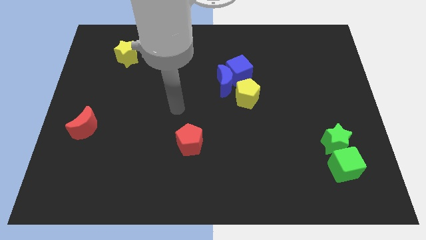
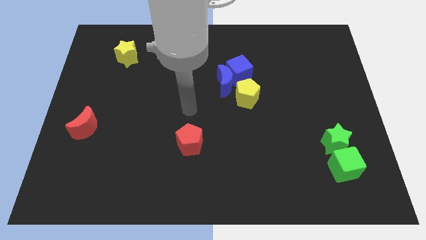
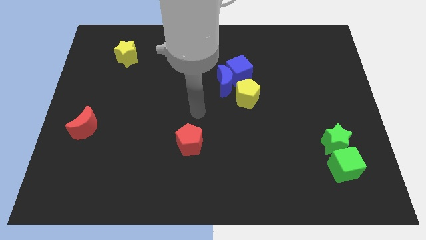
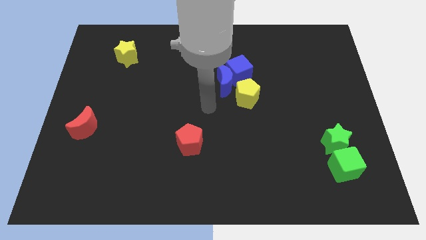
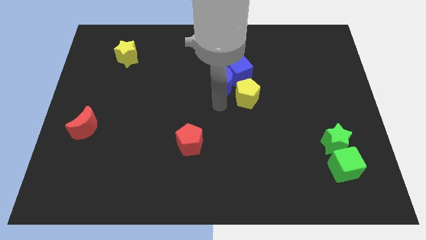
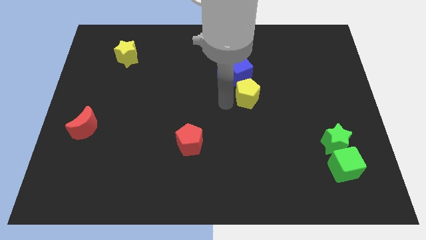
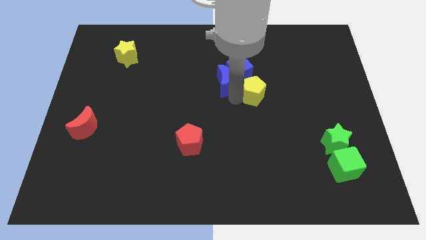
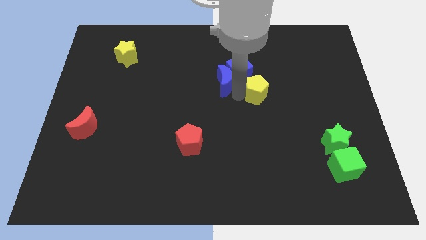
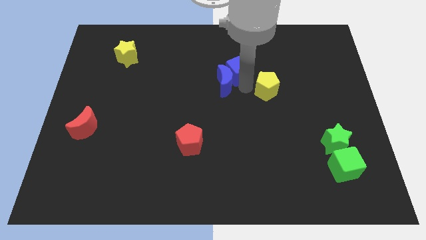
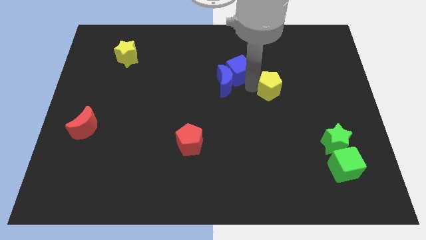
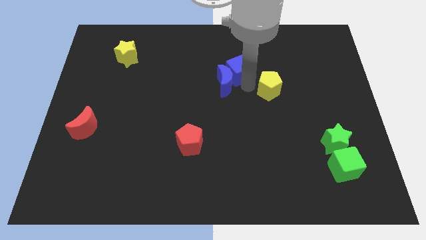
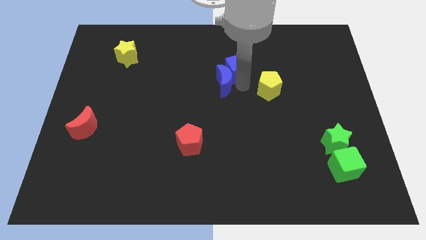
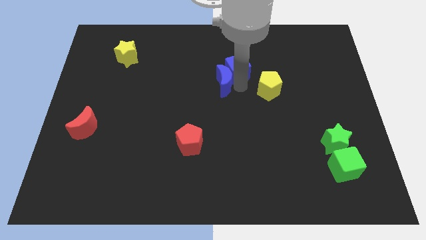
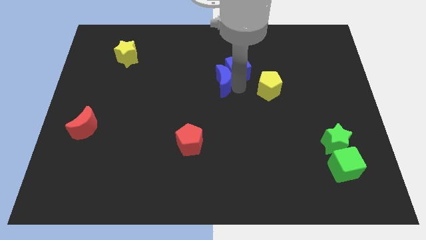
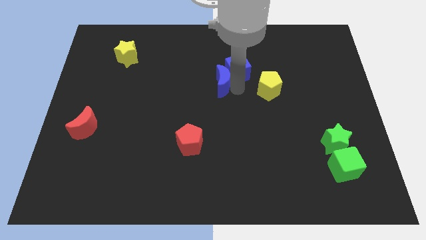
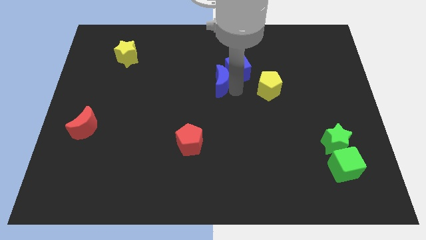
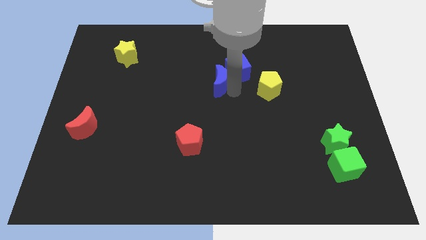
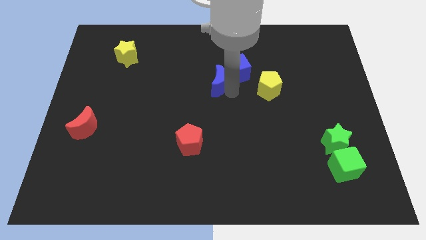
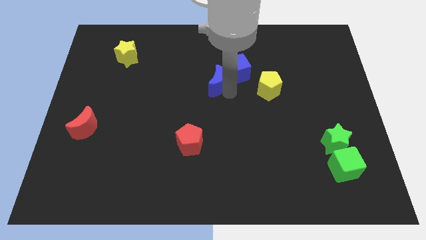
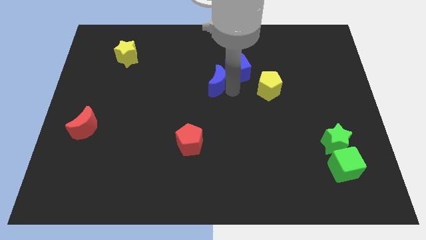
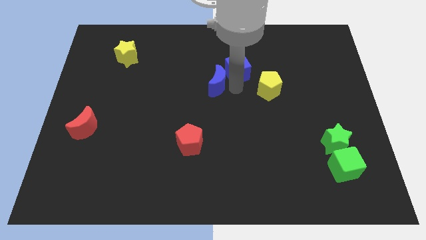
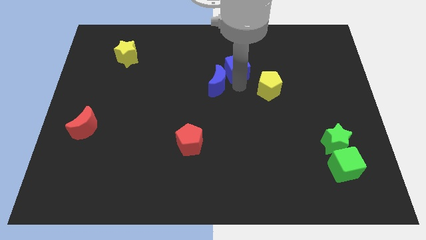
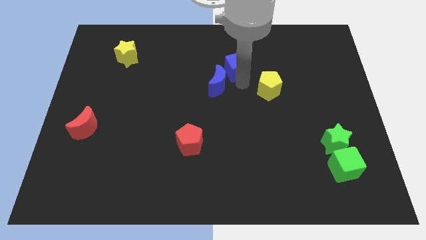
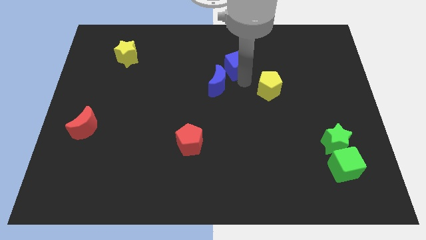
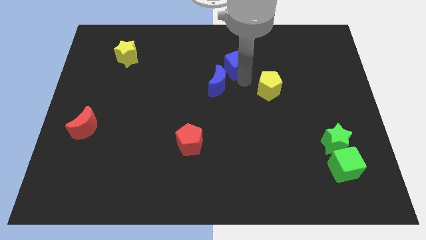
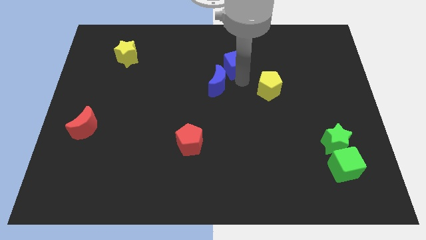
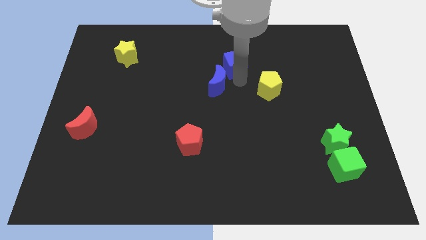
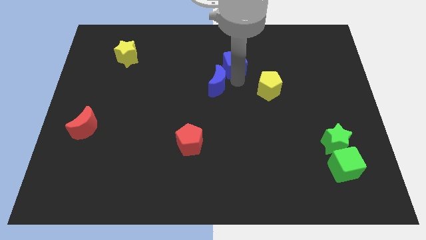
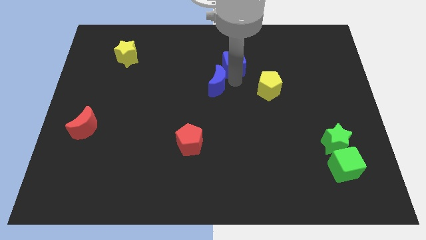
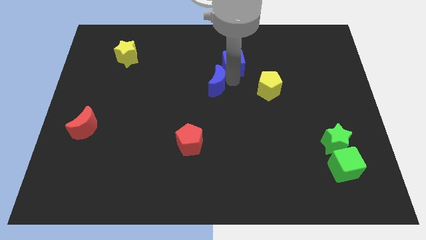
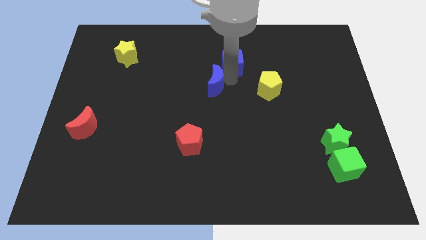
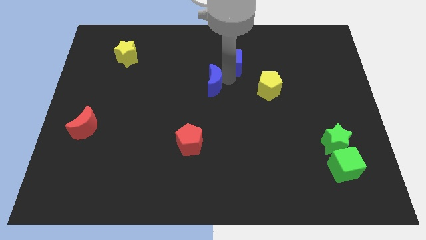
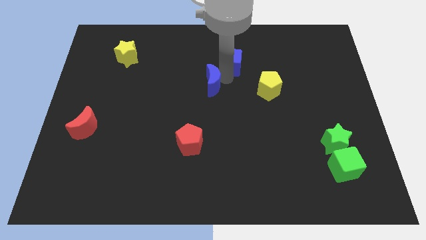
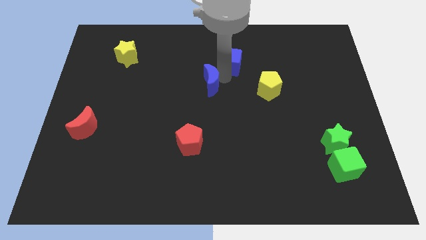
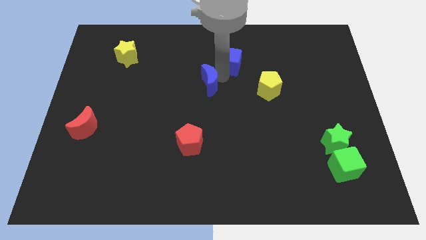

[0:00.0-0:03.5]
move the blue moon away from the blue cube and yellow pentagon

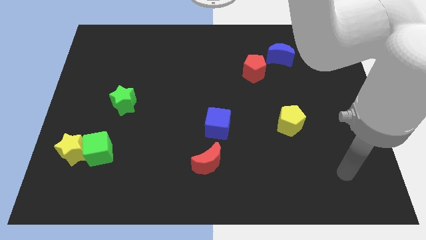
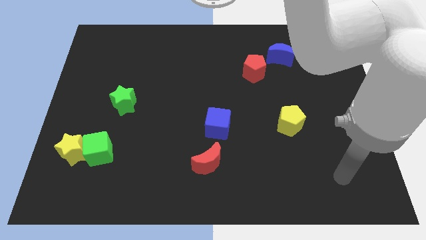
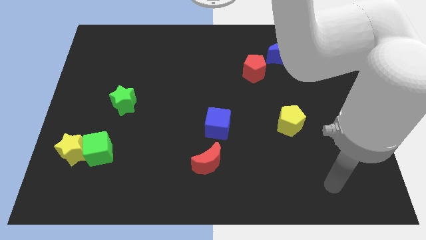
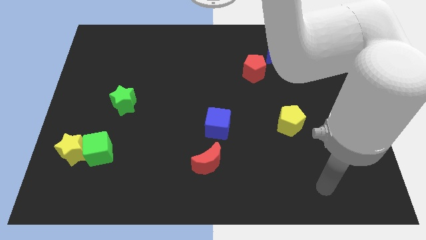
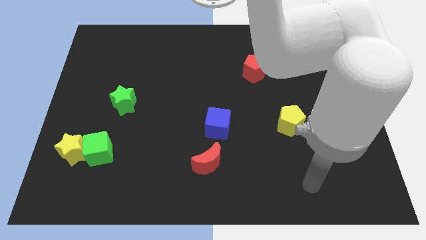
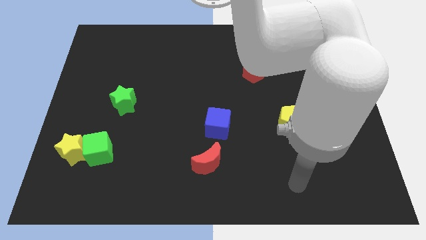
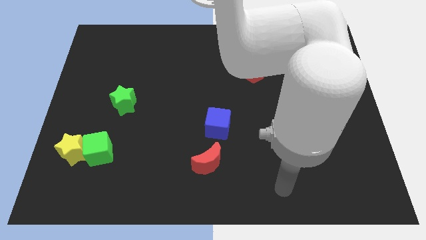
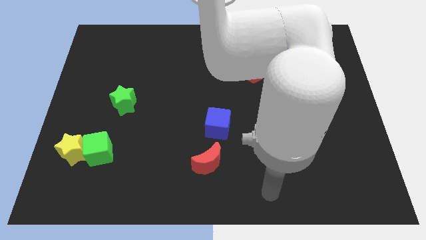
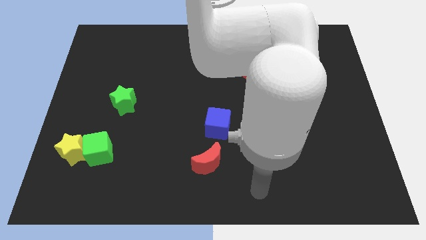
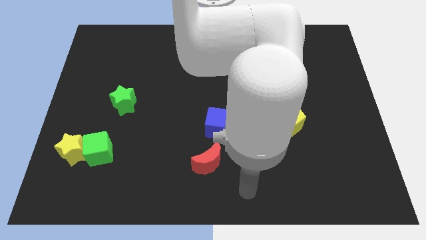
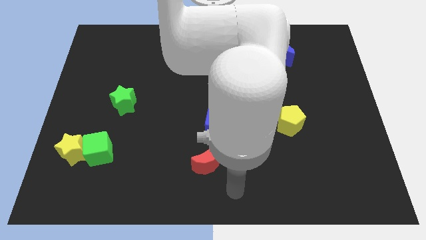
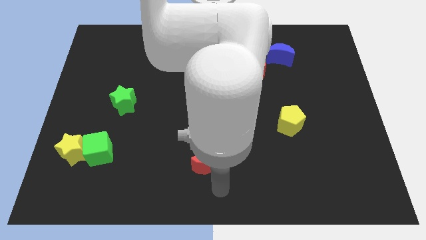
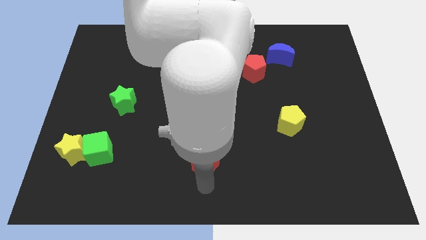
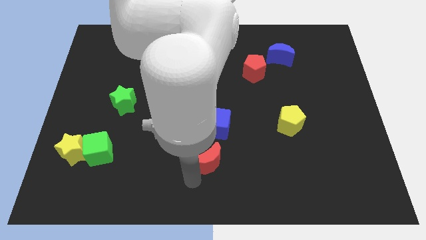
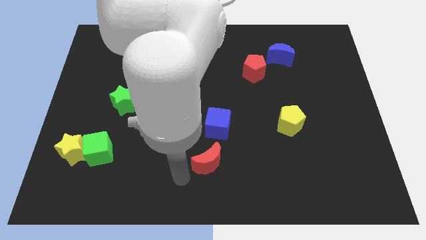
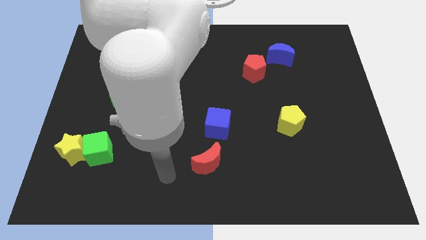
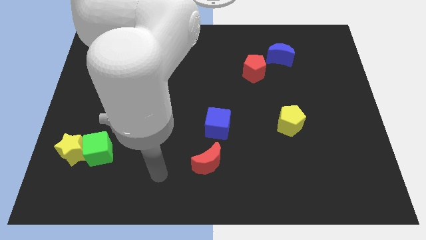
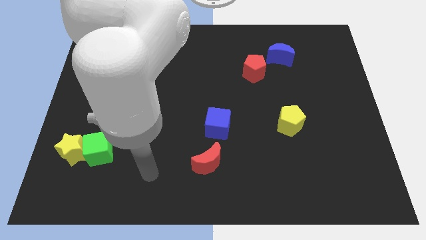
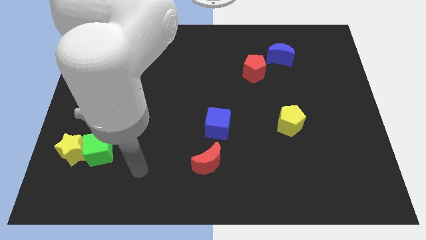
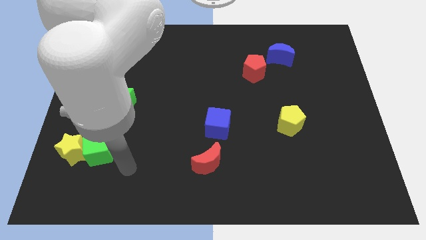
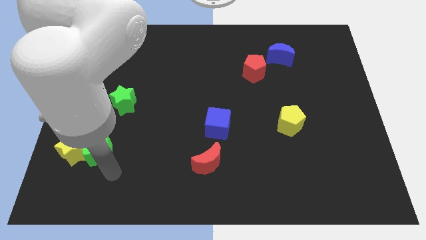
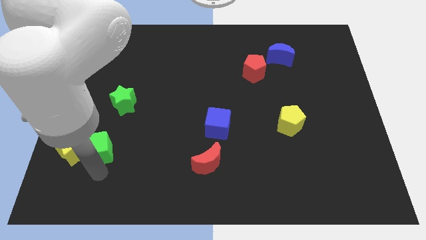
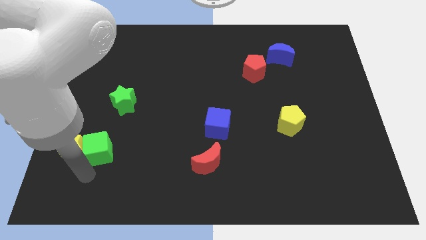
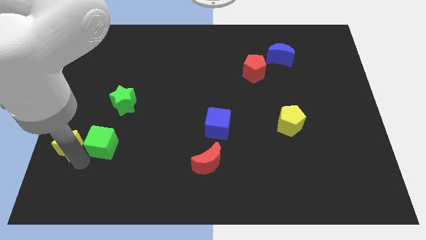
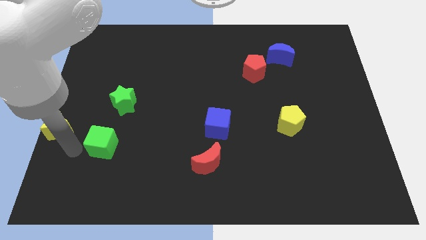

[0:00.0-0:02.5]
separate the green cube from the yellow star

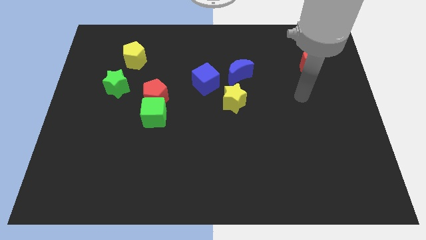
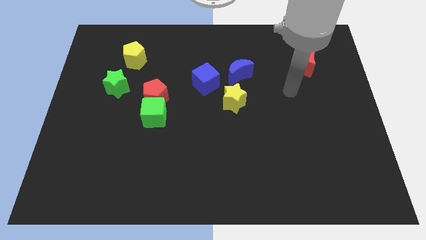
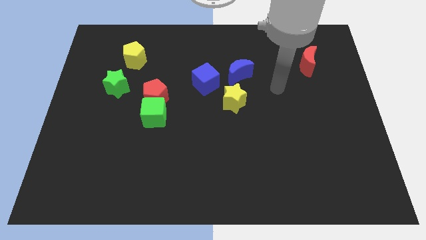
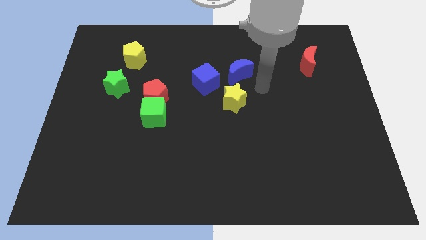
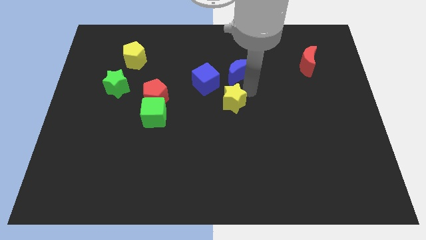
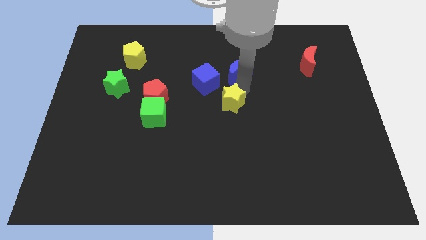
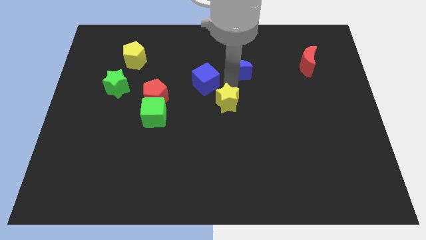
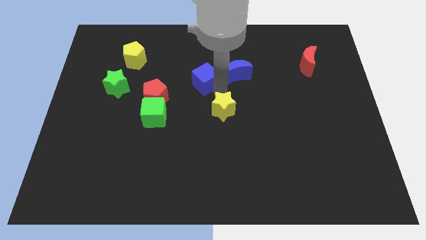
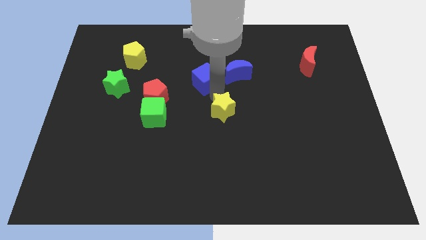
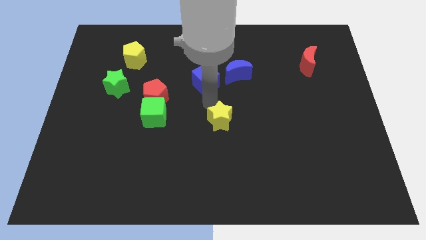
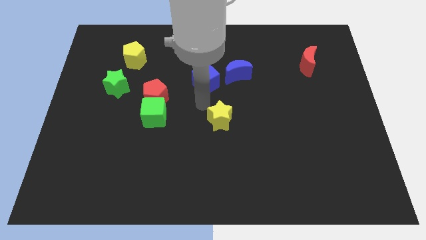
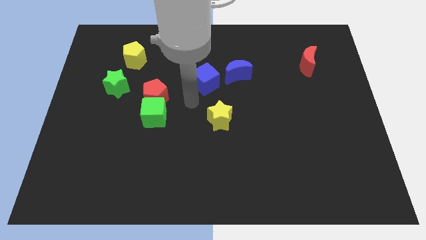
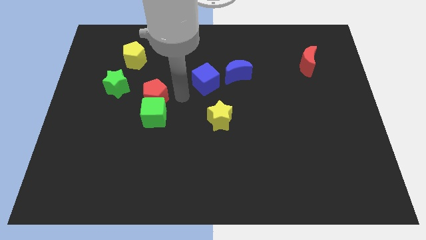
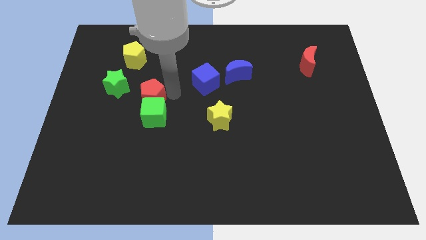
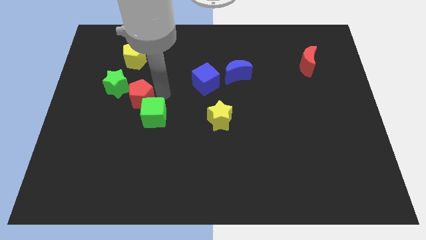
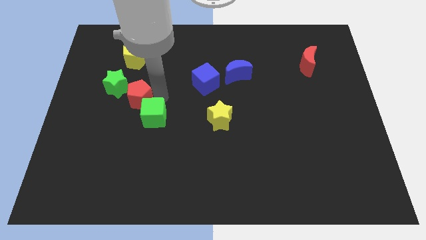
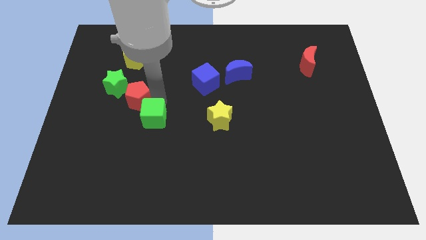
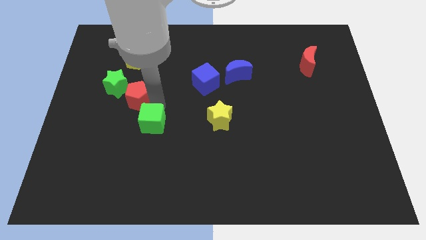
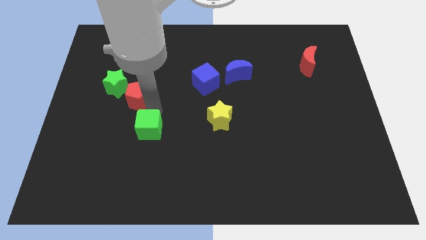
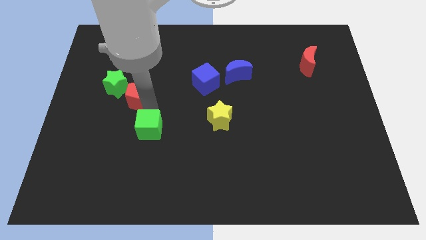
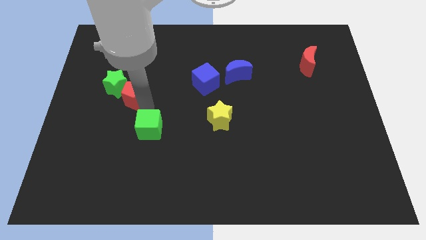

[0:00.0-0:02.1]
move the green cube away from the red pentagon

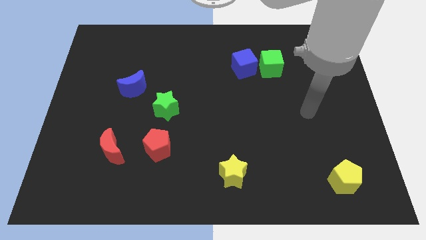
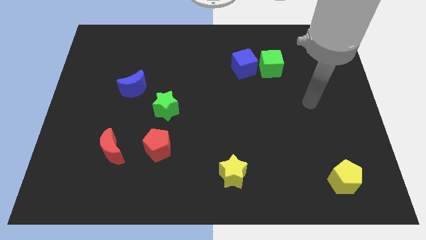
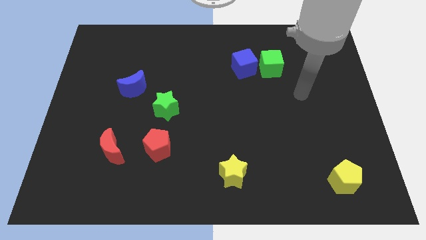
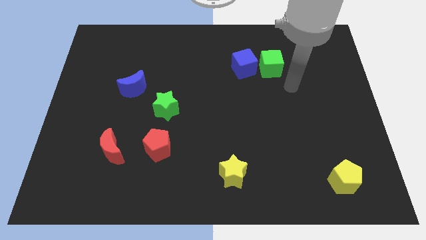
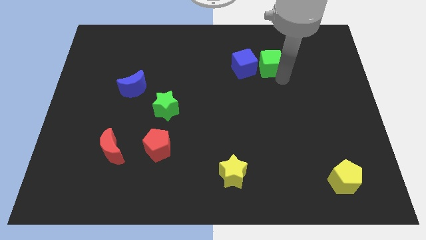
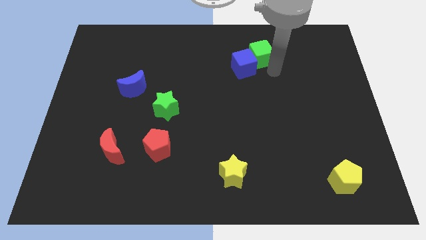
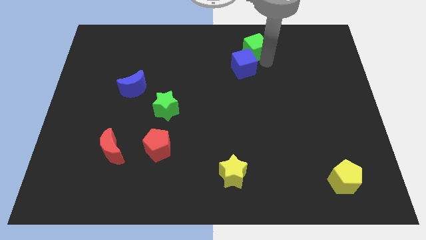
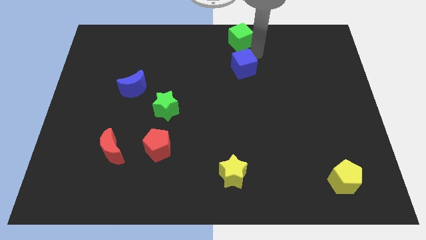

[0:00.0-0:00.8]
pull the blue cube apart from the green cube

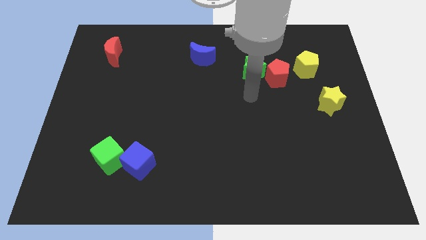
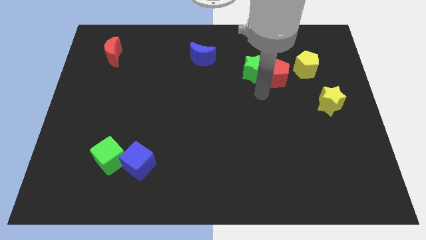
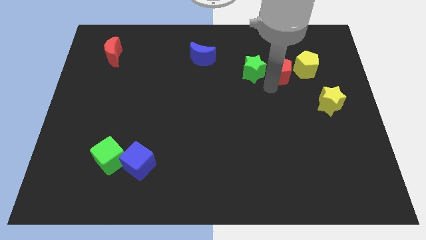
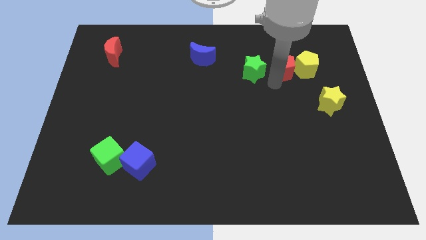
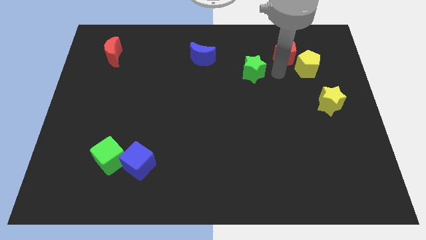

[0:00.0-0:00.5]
separate the green star from the red pentagon
